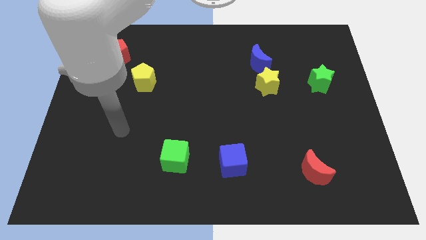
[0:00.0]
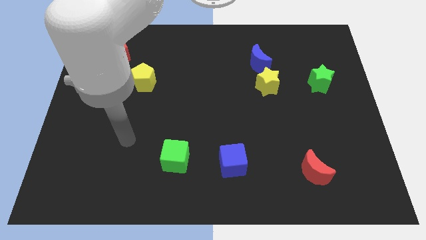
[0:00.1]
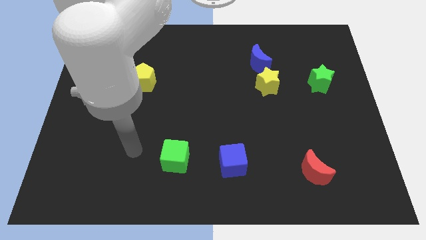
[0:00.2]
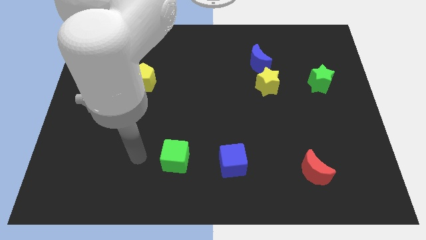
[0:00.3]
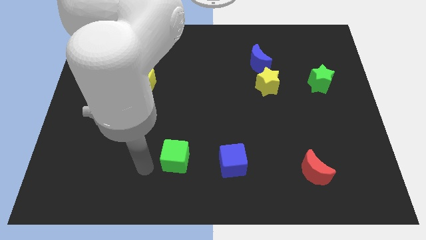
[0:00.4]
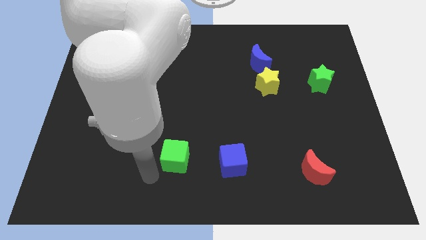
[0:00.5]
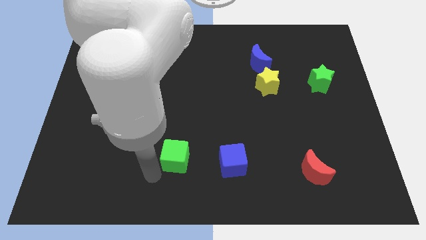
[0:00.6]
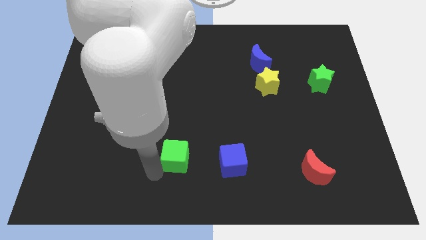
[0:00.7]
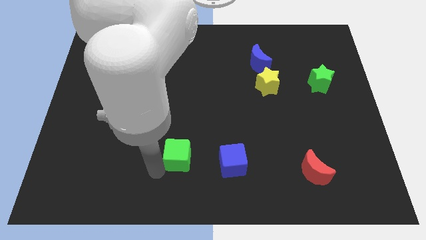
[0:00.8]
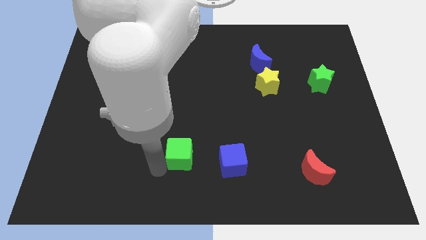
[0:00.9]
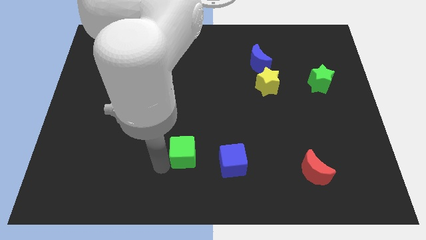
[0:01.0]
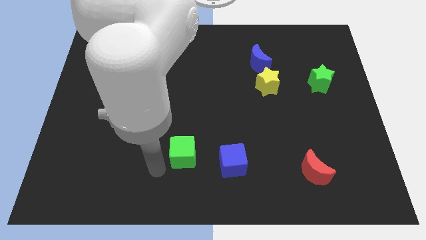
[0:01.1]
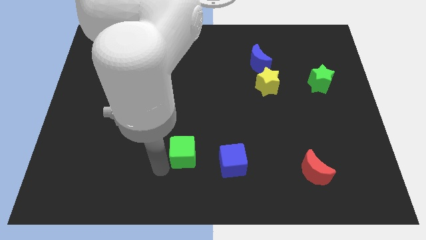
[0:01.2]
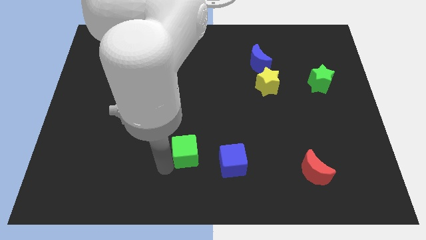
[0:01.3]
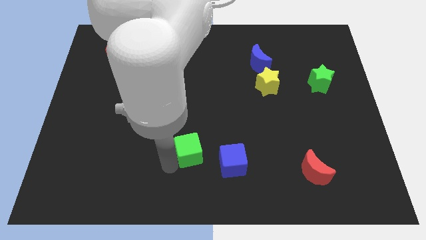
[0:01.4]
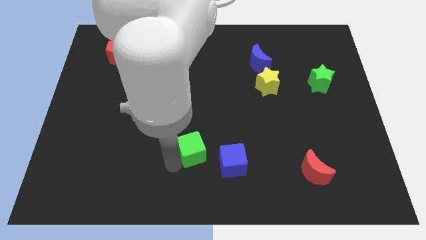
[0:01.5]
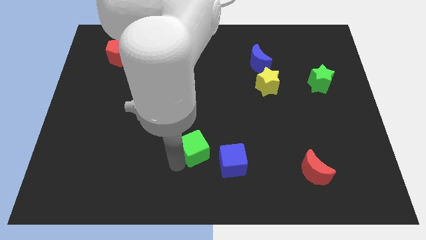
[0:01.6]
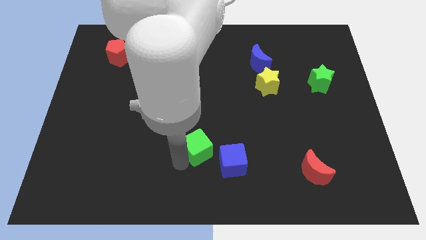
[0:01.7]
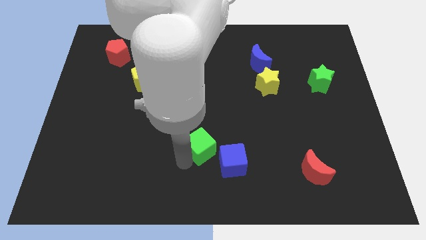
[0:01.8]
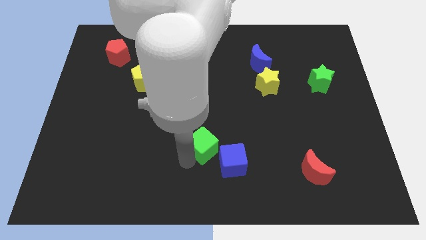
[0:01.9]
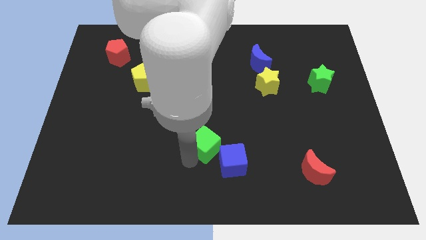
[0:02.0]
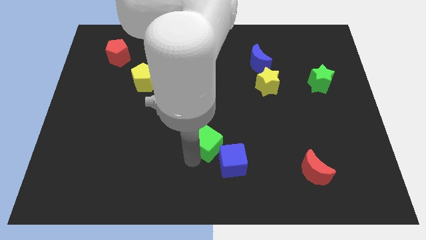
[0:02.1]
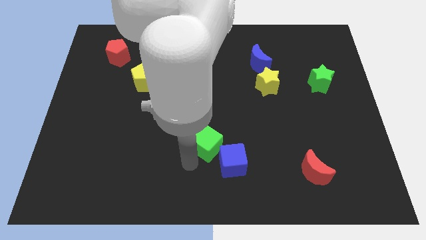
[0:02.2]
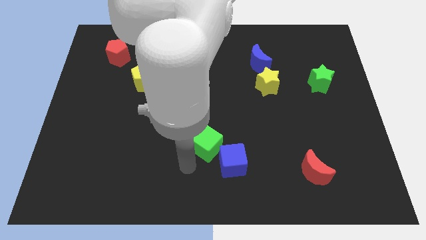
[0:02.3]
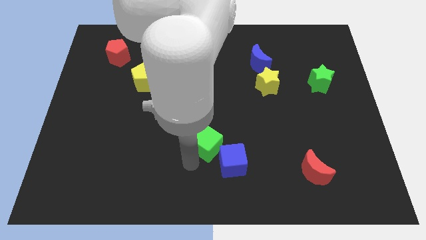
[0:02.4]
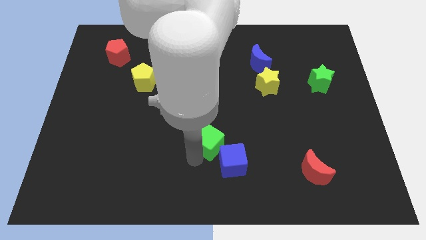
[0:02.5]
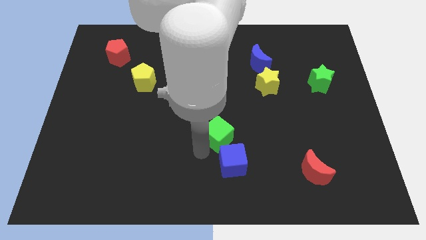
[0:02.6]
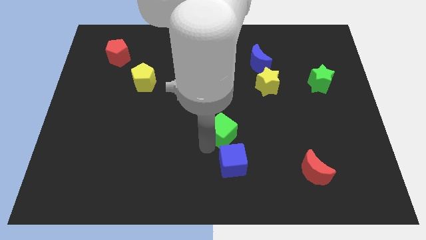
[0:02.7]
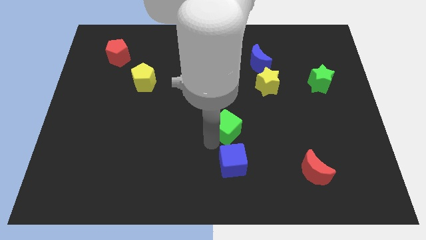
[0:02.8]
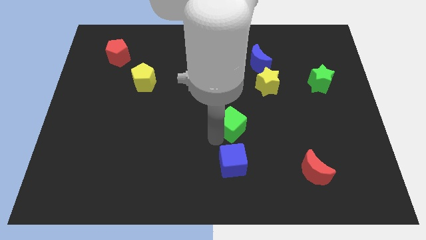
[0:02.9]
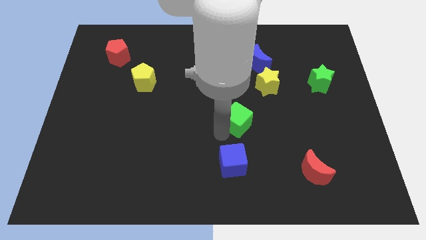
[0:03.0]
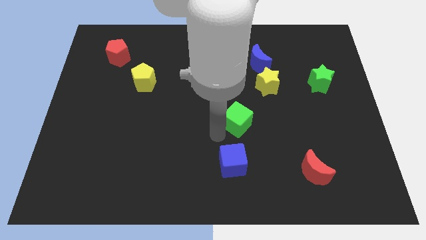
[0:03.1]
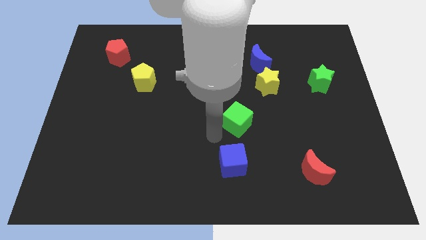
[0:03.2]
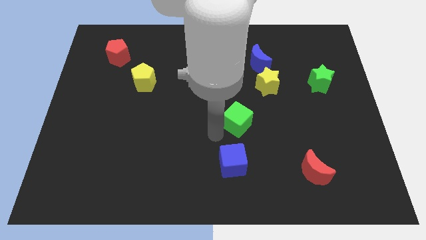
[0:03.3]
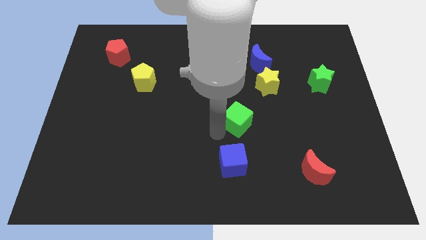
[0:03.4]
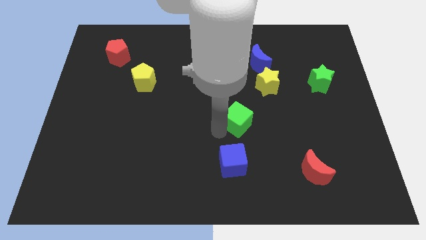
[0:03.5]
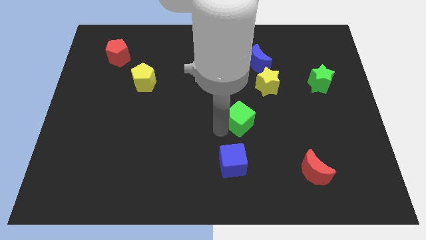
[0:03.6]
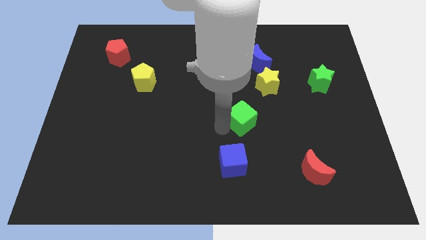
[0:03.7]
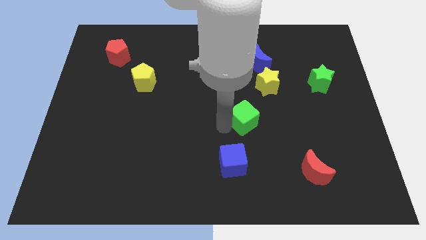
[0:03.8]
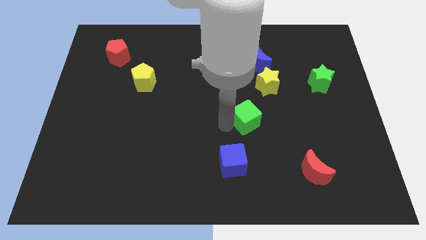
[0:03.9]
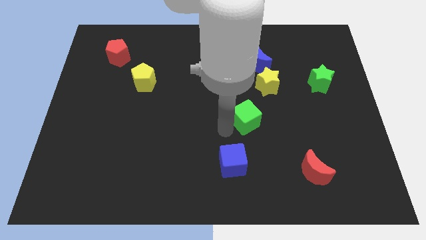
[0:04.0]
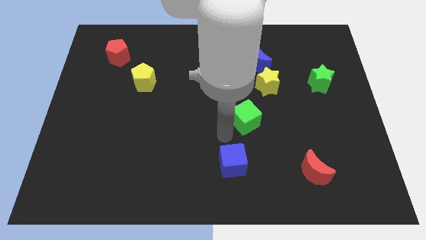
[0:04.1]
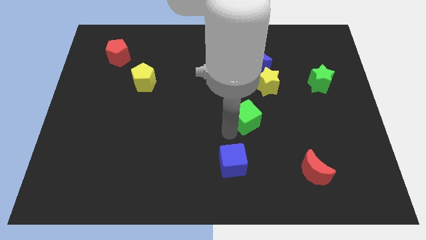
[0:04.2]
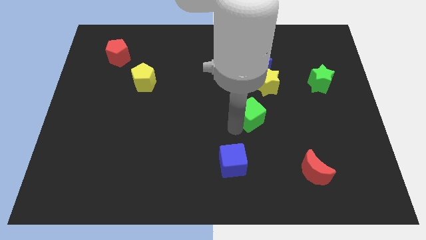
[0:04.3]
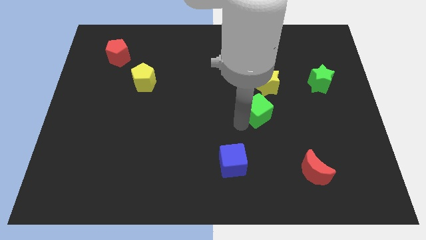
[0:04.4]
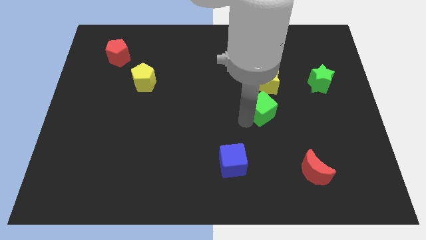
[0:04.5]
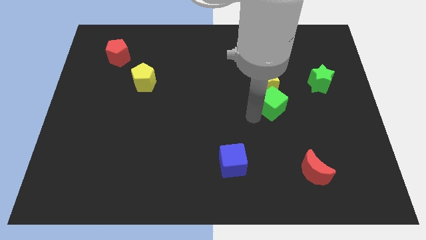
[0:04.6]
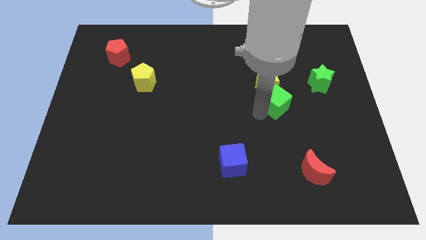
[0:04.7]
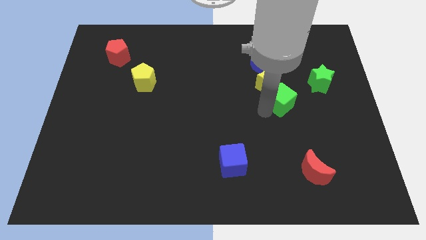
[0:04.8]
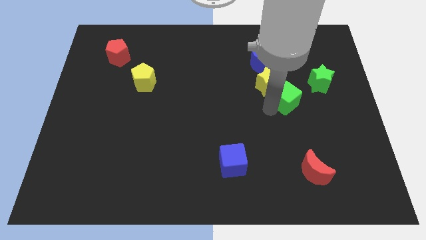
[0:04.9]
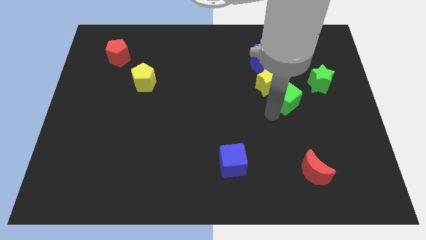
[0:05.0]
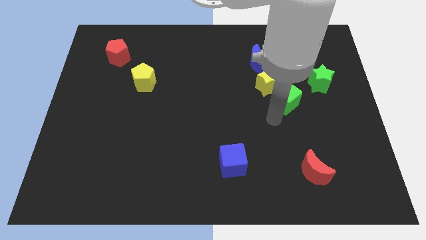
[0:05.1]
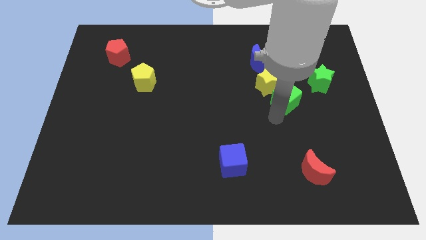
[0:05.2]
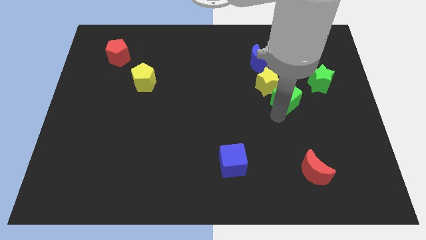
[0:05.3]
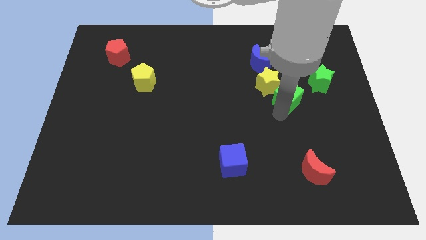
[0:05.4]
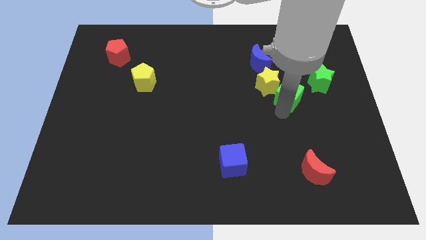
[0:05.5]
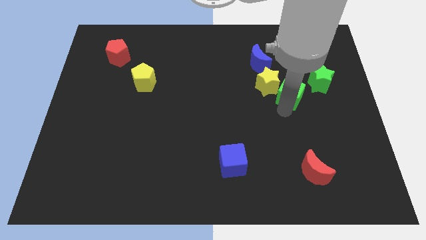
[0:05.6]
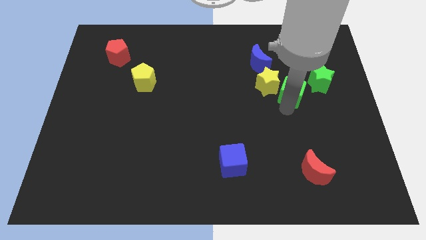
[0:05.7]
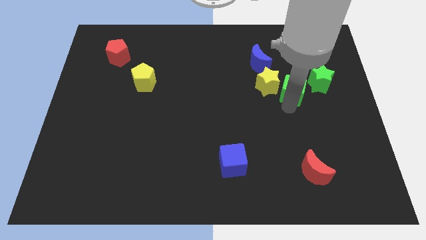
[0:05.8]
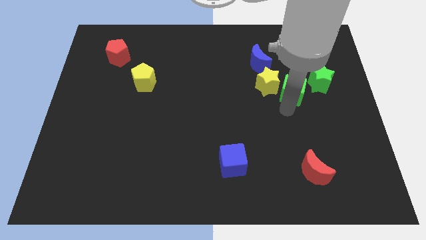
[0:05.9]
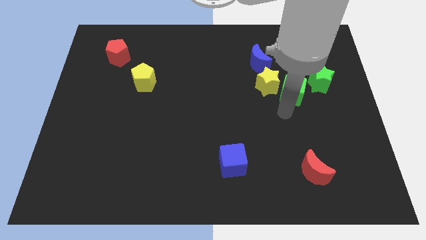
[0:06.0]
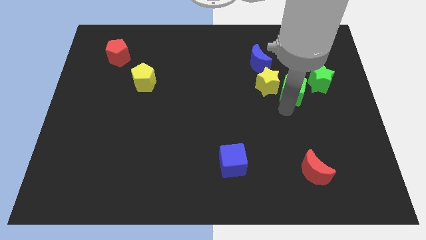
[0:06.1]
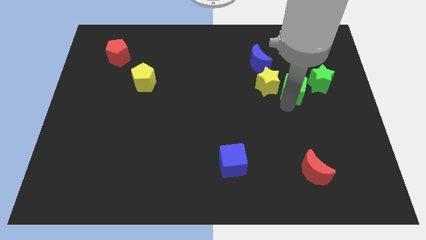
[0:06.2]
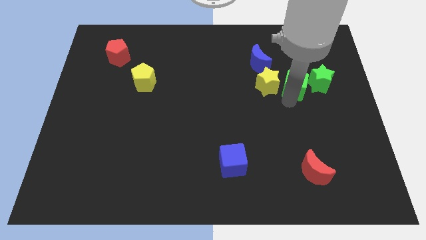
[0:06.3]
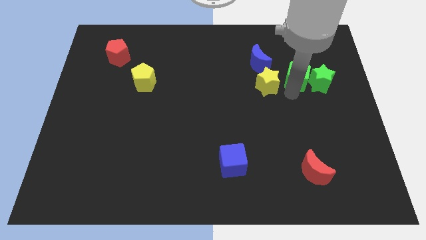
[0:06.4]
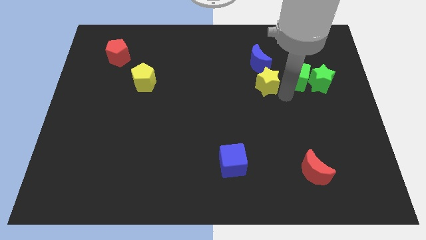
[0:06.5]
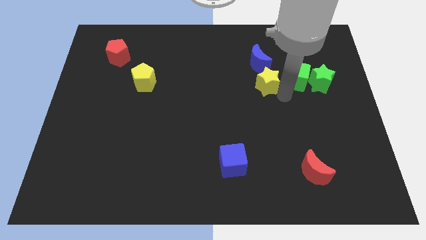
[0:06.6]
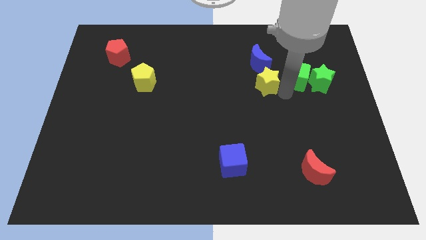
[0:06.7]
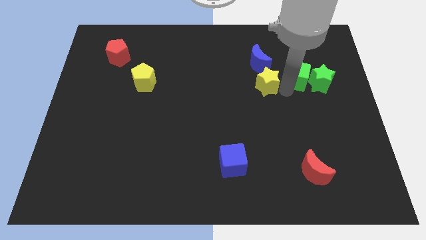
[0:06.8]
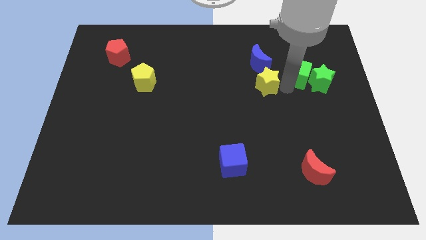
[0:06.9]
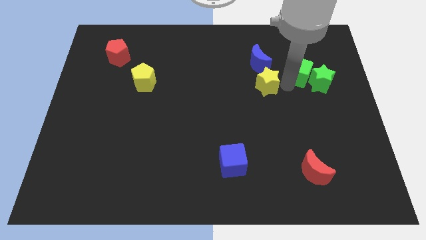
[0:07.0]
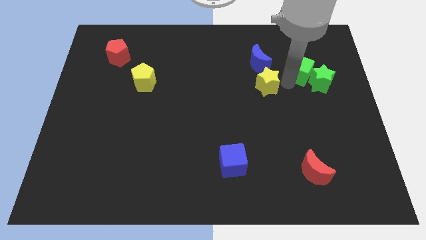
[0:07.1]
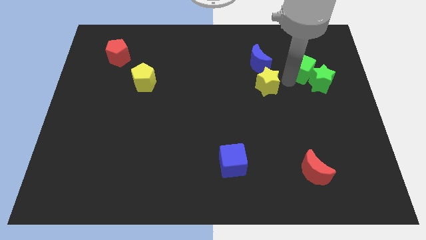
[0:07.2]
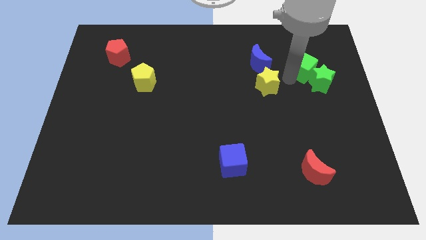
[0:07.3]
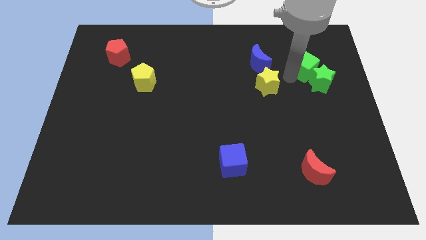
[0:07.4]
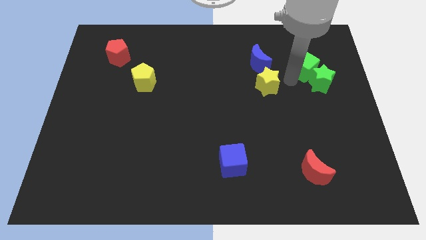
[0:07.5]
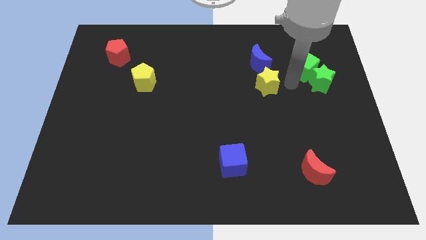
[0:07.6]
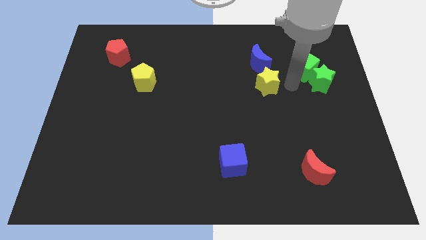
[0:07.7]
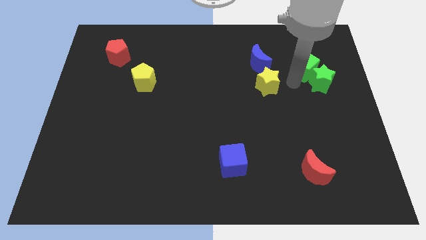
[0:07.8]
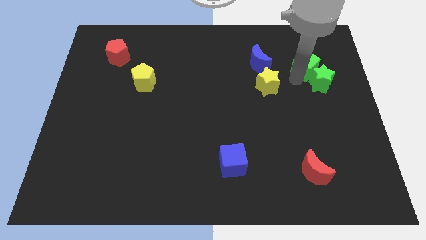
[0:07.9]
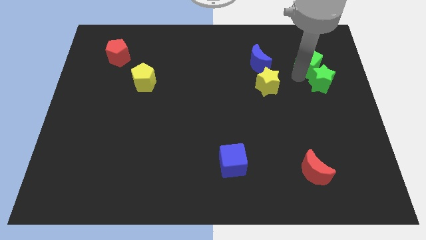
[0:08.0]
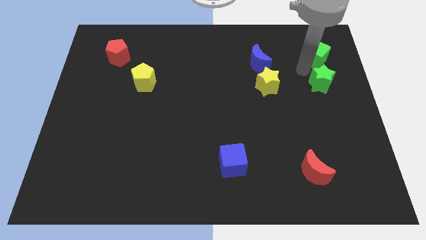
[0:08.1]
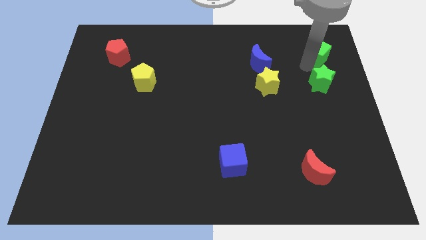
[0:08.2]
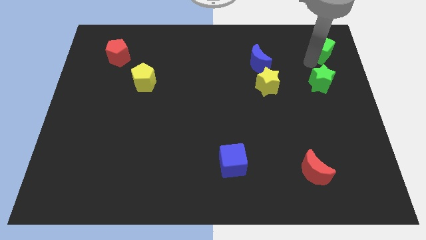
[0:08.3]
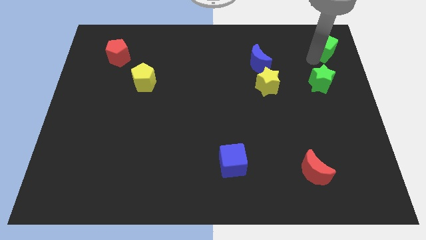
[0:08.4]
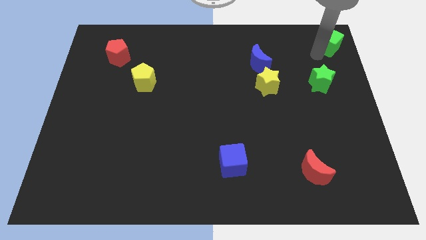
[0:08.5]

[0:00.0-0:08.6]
slide the green cube to the top right of the board
